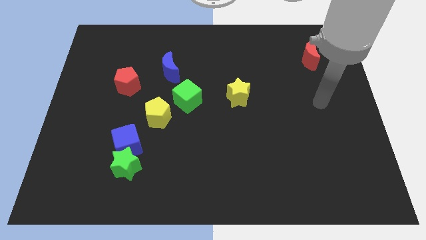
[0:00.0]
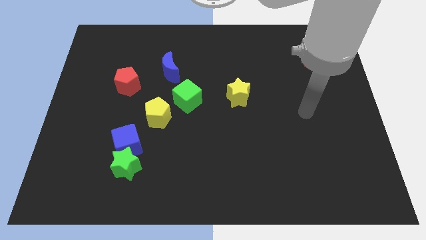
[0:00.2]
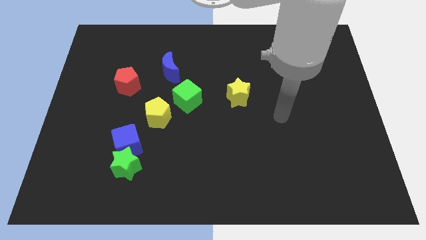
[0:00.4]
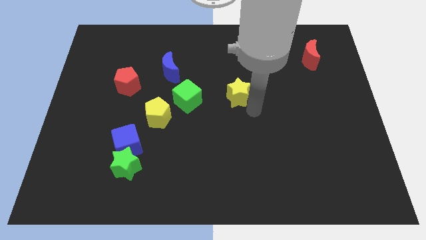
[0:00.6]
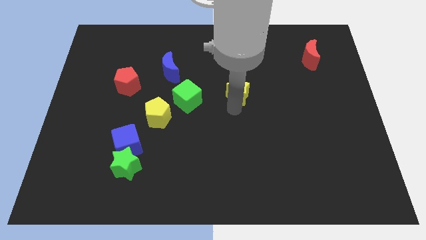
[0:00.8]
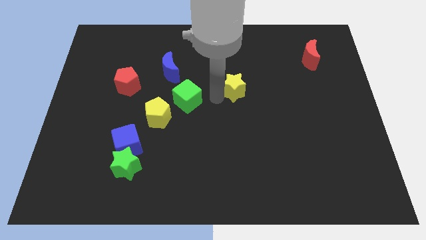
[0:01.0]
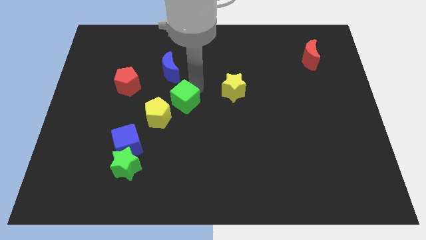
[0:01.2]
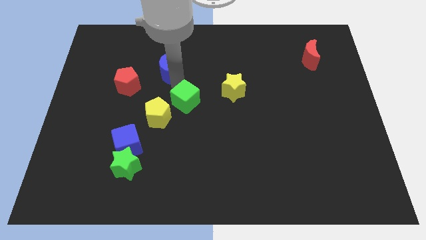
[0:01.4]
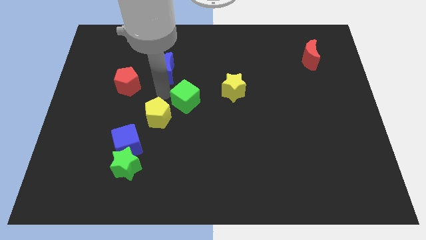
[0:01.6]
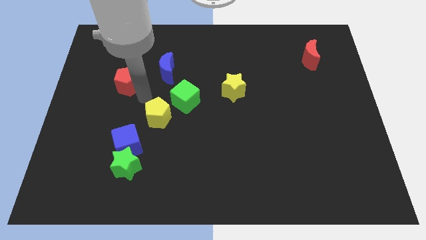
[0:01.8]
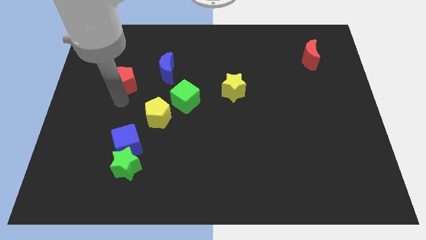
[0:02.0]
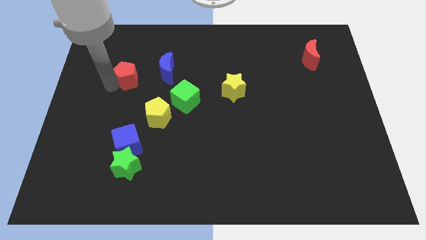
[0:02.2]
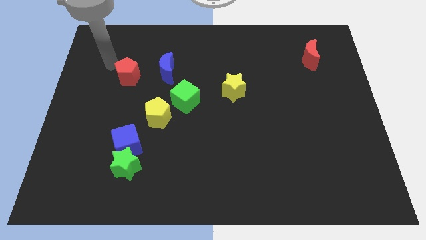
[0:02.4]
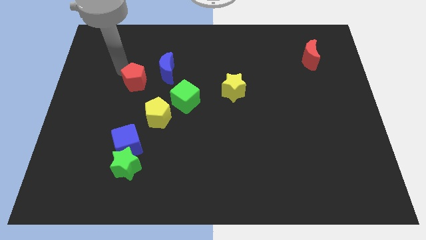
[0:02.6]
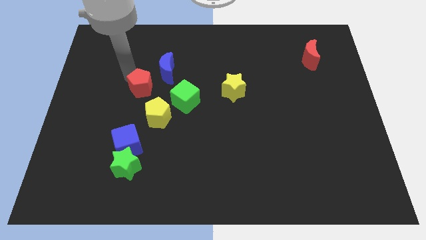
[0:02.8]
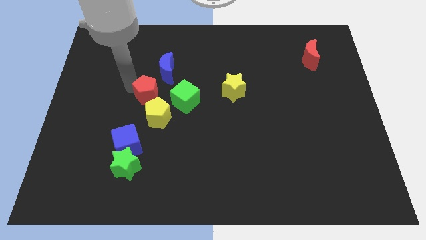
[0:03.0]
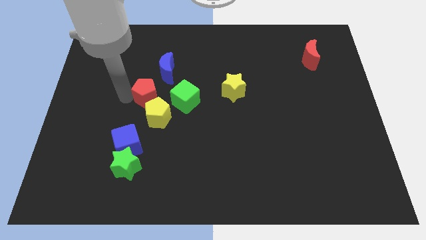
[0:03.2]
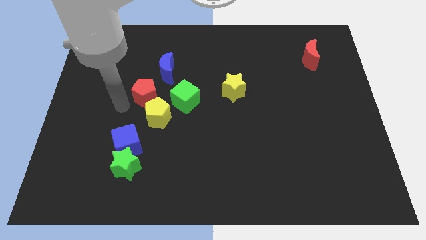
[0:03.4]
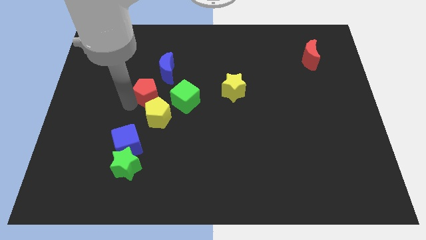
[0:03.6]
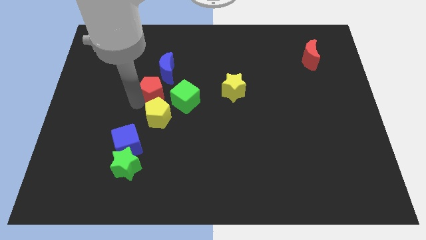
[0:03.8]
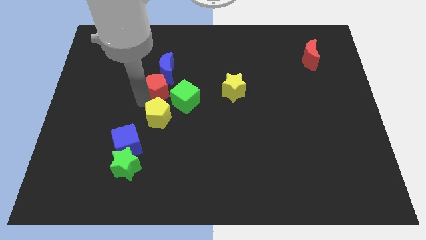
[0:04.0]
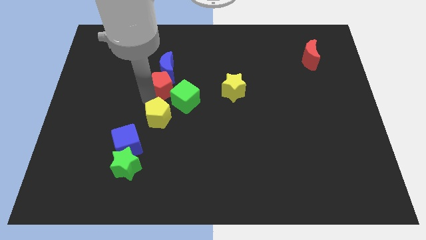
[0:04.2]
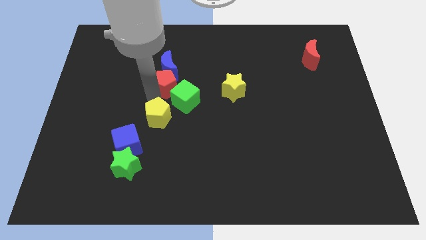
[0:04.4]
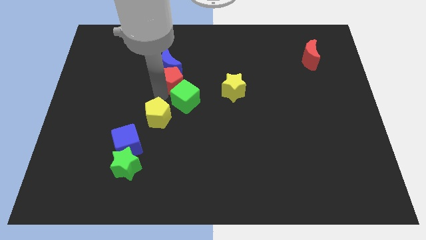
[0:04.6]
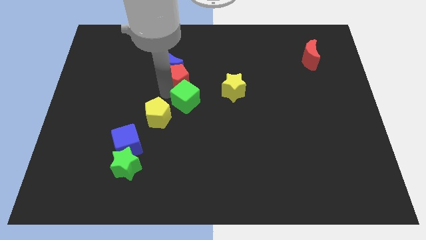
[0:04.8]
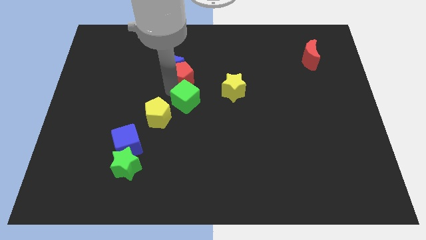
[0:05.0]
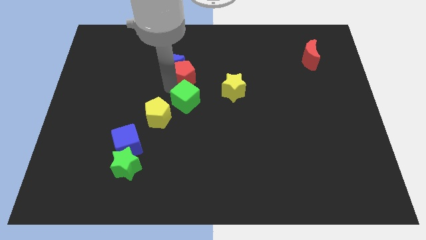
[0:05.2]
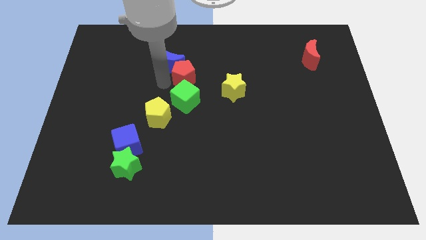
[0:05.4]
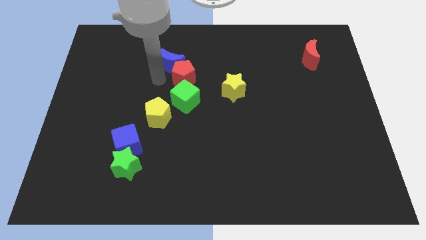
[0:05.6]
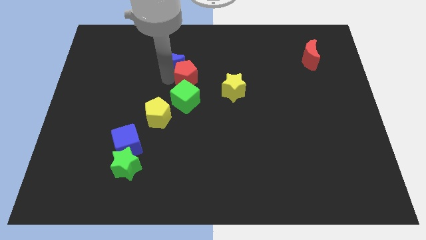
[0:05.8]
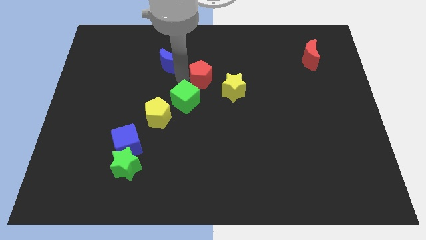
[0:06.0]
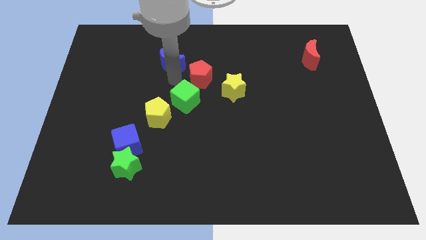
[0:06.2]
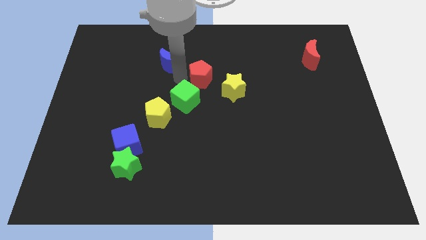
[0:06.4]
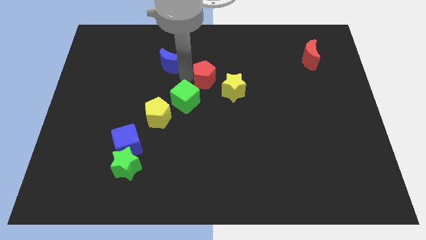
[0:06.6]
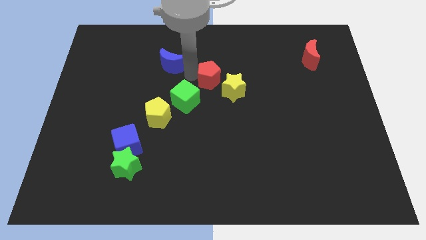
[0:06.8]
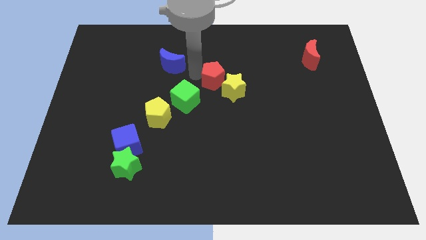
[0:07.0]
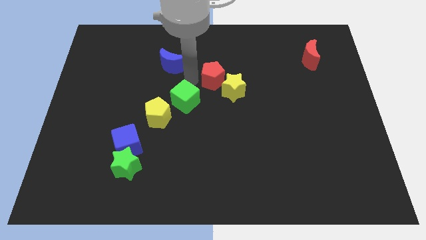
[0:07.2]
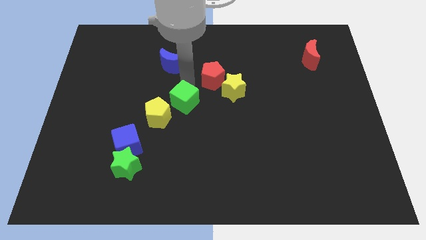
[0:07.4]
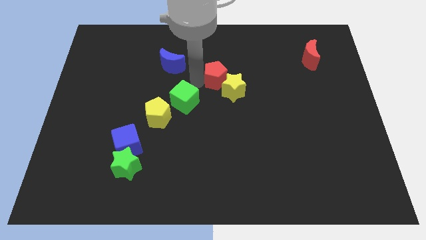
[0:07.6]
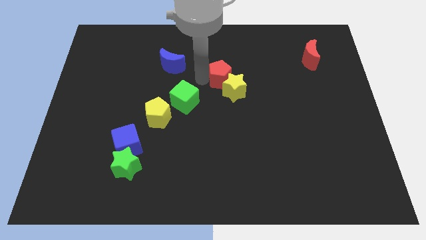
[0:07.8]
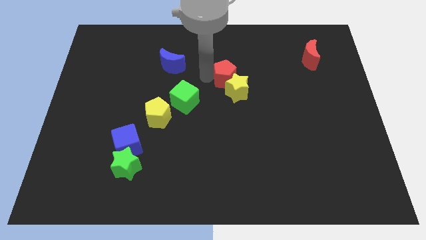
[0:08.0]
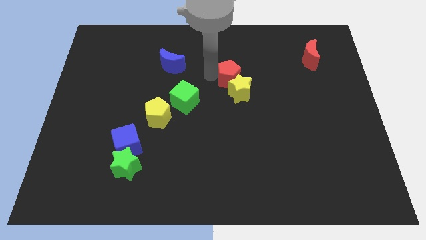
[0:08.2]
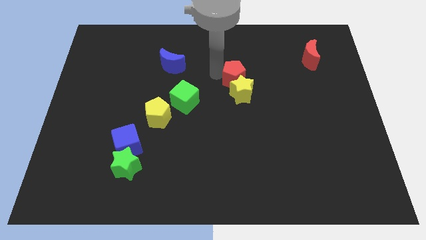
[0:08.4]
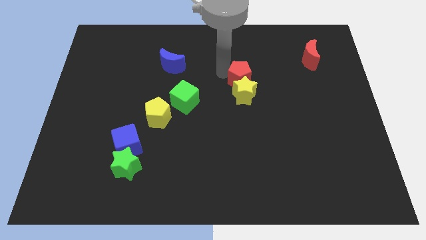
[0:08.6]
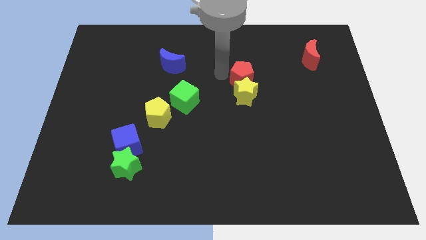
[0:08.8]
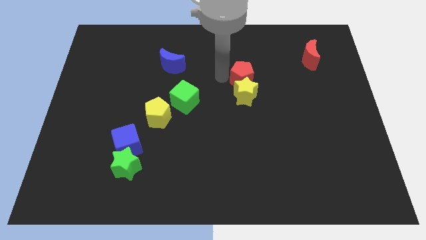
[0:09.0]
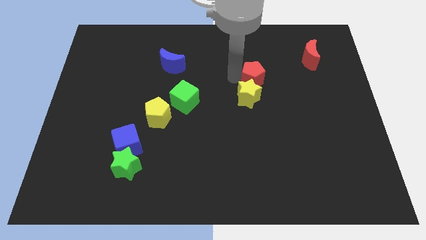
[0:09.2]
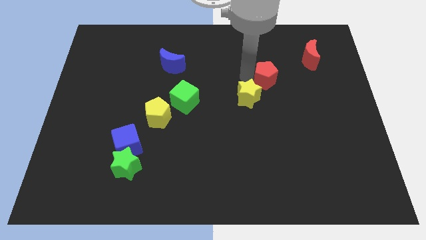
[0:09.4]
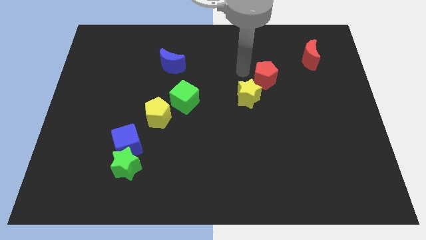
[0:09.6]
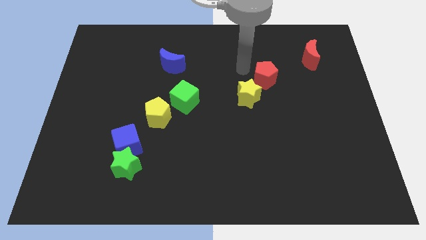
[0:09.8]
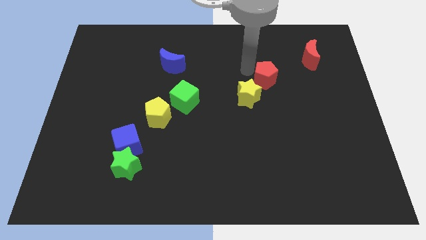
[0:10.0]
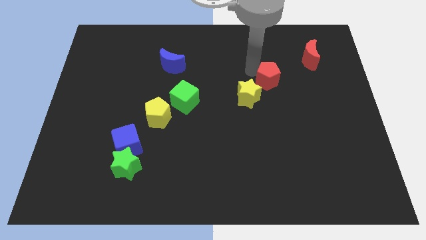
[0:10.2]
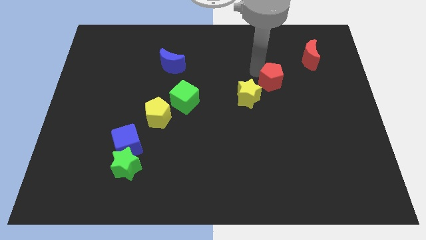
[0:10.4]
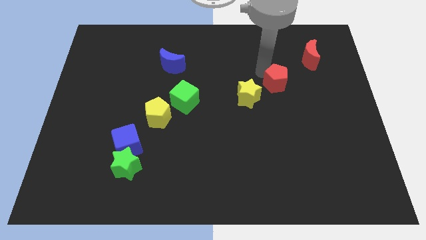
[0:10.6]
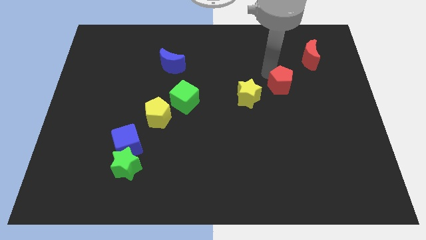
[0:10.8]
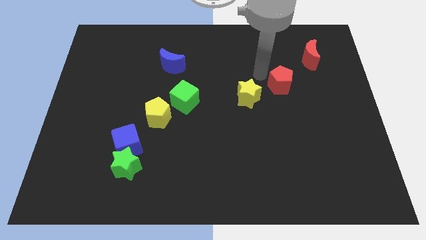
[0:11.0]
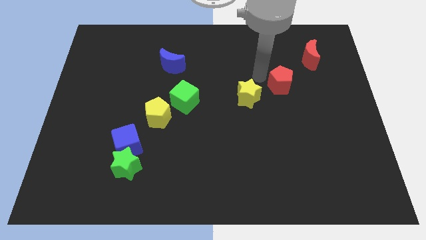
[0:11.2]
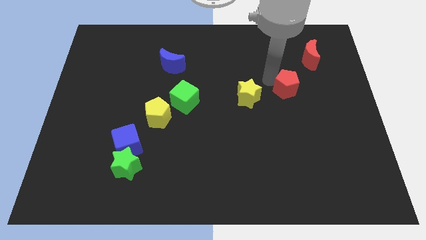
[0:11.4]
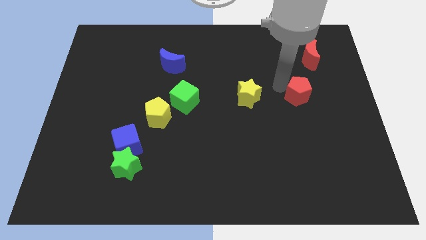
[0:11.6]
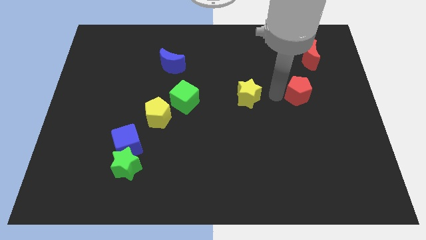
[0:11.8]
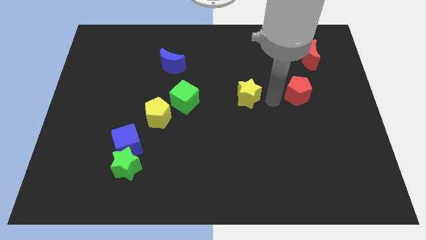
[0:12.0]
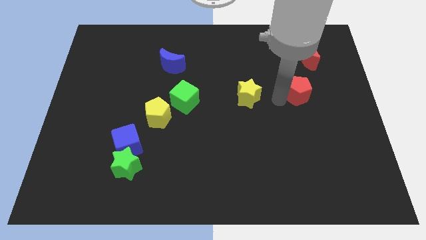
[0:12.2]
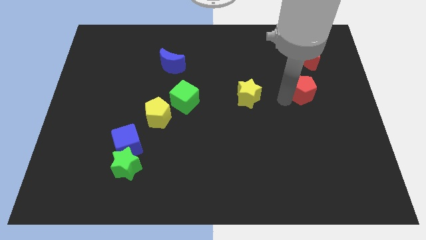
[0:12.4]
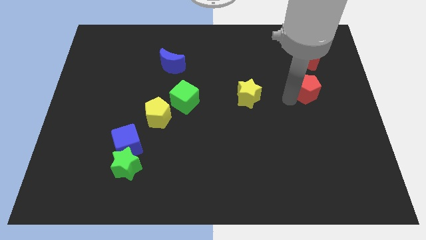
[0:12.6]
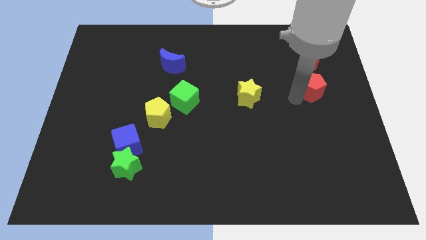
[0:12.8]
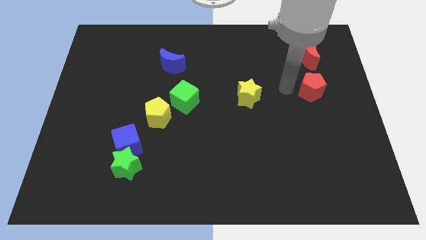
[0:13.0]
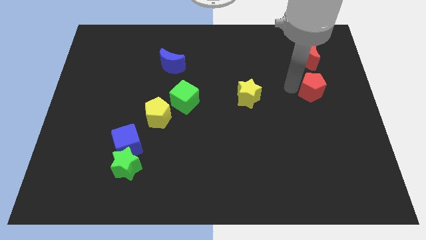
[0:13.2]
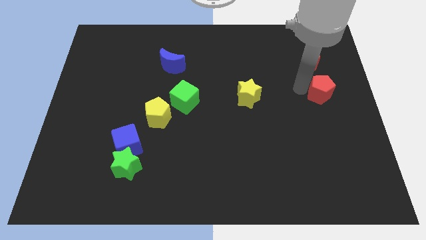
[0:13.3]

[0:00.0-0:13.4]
move the red pentagon to the right side
